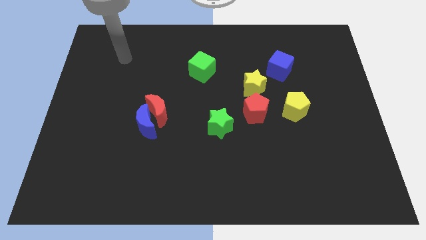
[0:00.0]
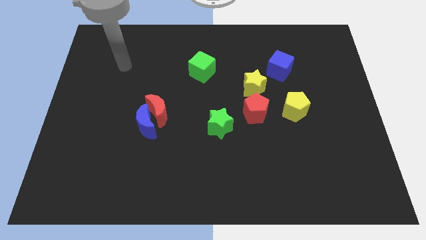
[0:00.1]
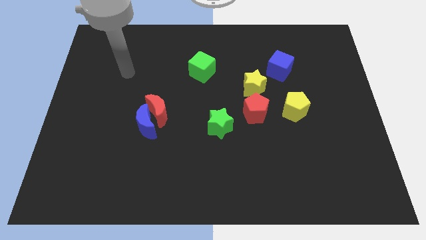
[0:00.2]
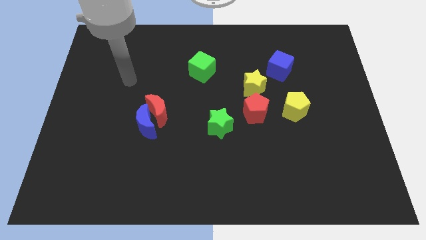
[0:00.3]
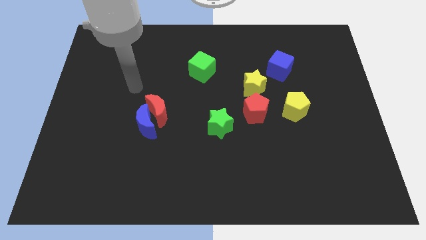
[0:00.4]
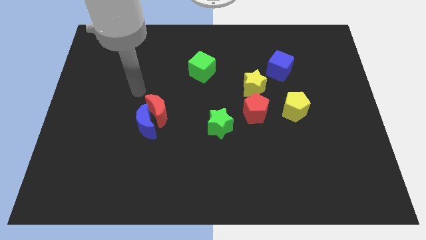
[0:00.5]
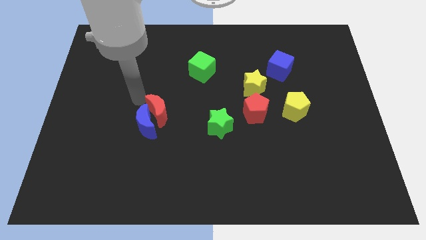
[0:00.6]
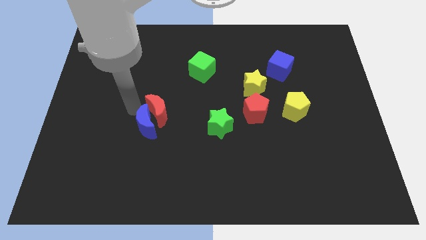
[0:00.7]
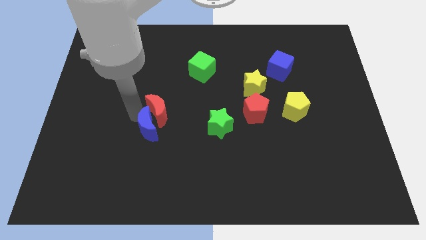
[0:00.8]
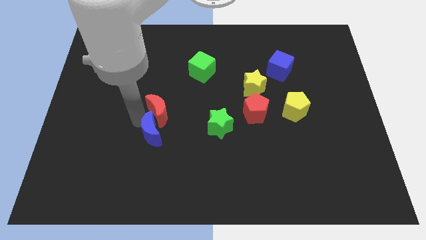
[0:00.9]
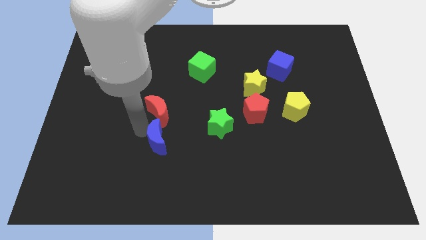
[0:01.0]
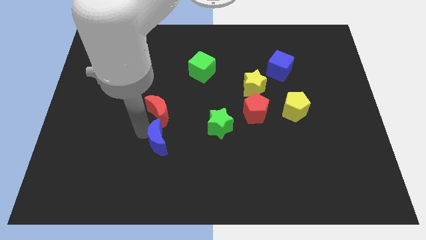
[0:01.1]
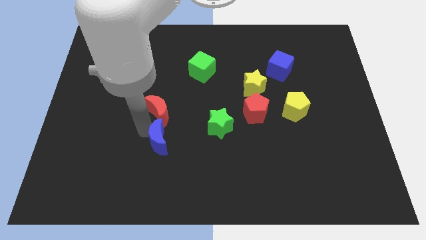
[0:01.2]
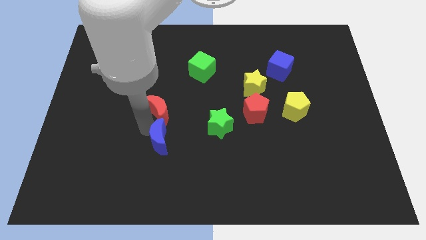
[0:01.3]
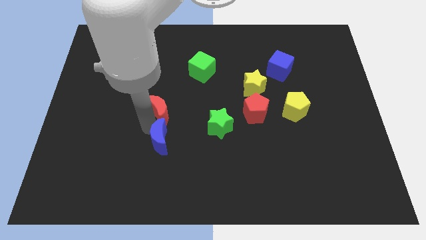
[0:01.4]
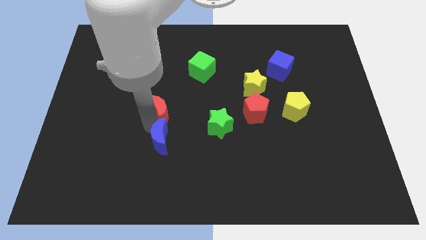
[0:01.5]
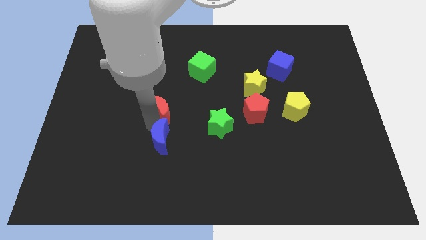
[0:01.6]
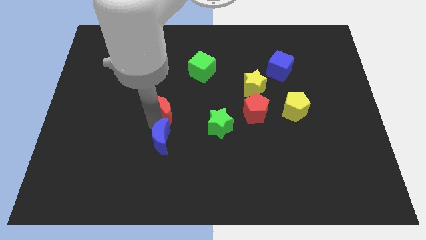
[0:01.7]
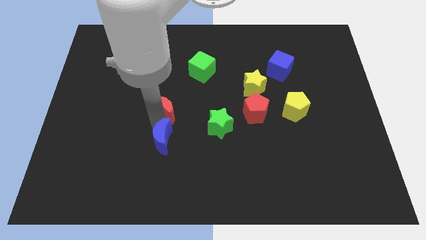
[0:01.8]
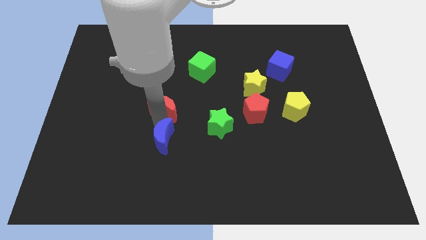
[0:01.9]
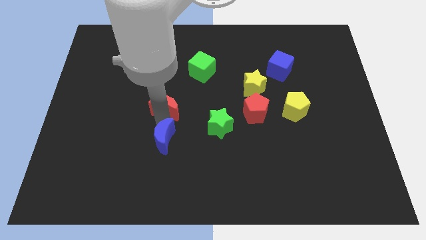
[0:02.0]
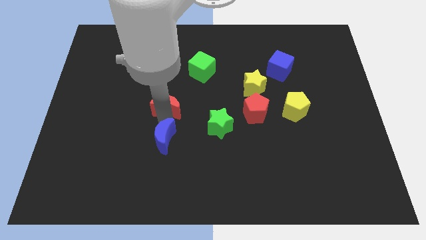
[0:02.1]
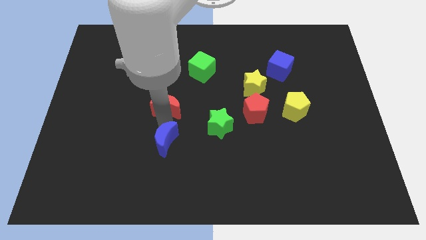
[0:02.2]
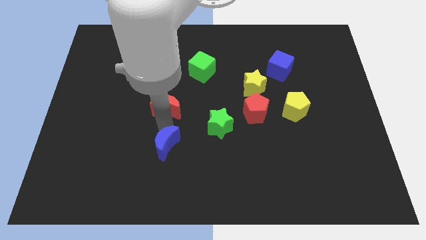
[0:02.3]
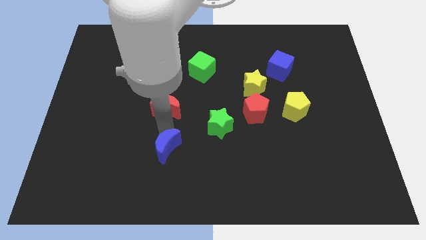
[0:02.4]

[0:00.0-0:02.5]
move the red moon away from the blue moon

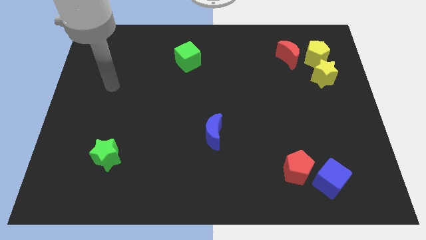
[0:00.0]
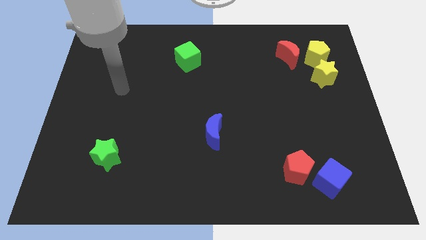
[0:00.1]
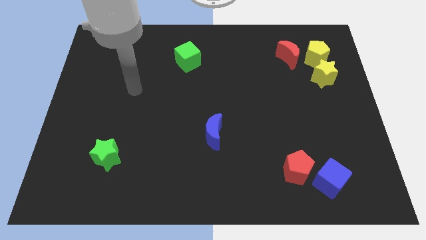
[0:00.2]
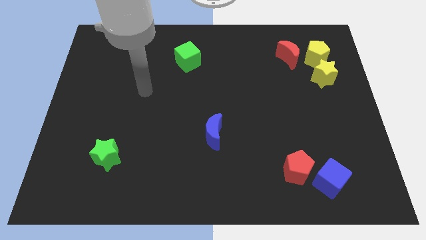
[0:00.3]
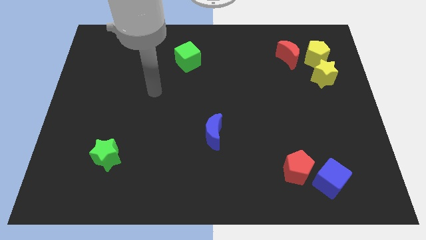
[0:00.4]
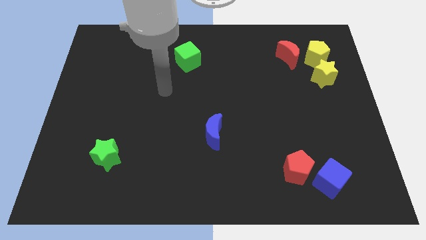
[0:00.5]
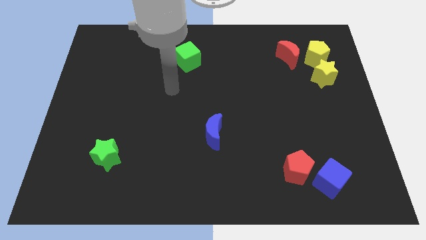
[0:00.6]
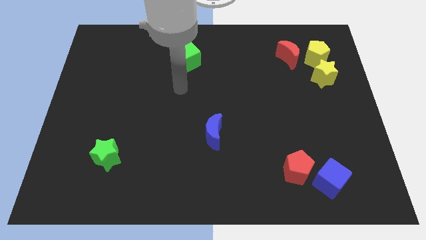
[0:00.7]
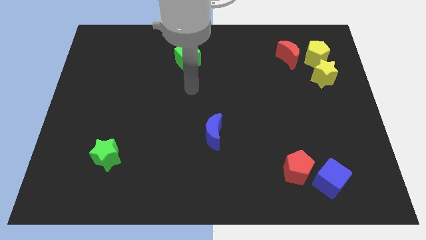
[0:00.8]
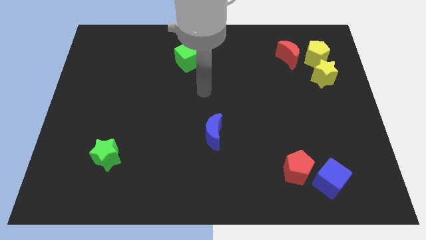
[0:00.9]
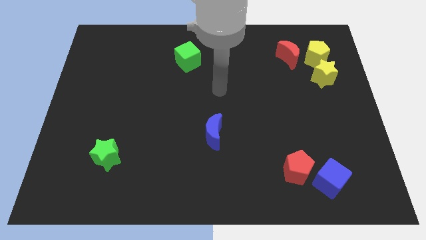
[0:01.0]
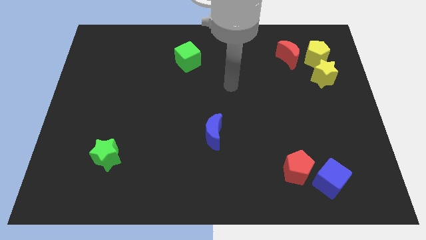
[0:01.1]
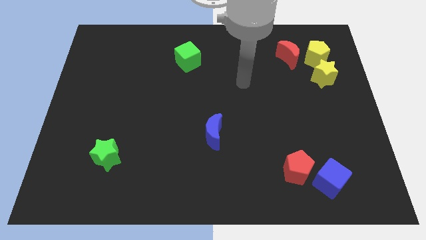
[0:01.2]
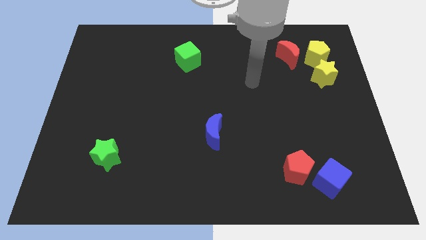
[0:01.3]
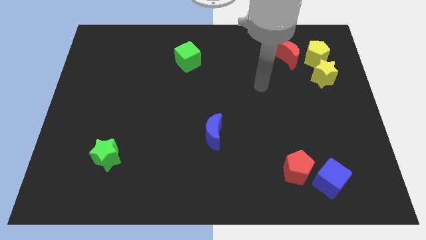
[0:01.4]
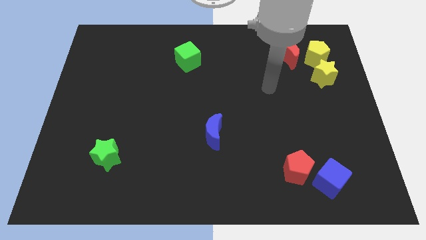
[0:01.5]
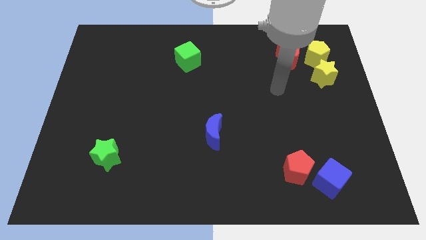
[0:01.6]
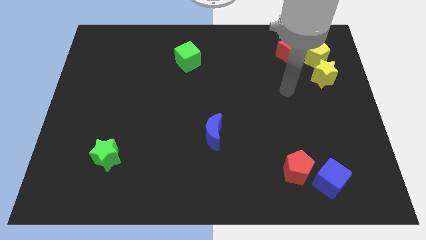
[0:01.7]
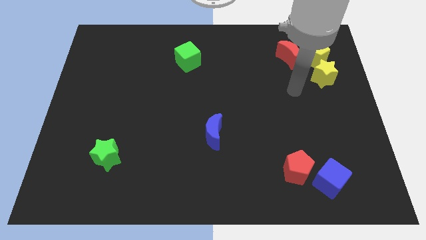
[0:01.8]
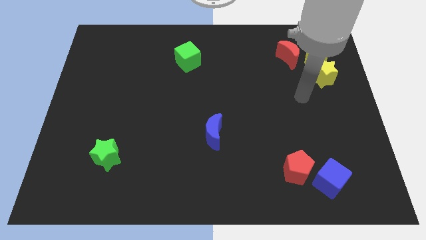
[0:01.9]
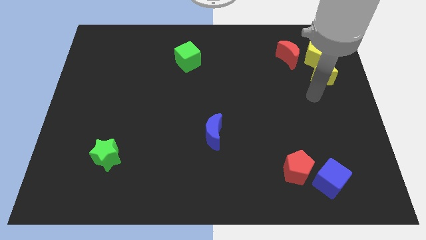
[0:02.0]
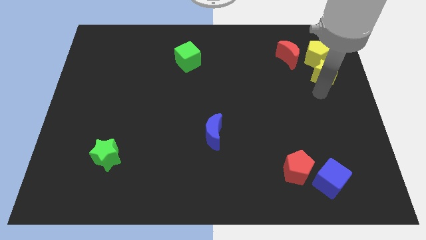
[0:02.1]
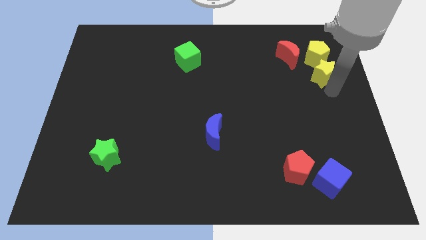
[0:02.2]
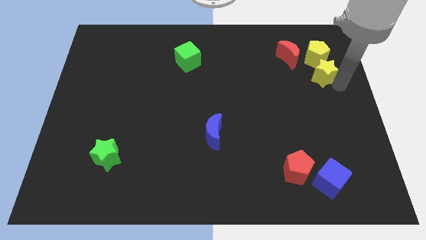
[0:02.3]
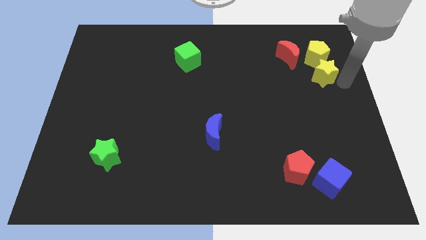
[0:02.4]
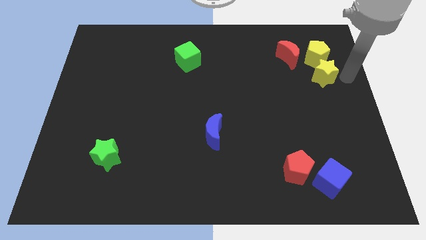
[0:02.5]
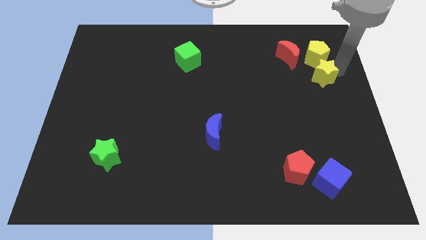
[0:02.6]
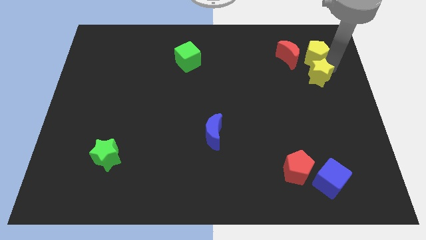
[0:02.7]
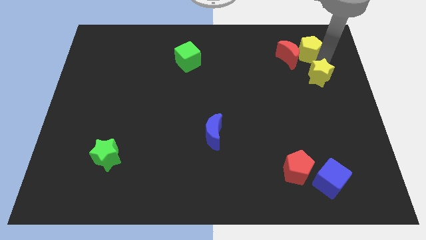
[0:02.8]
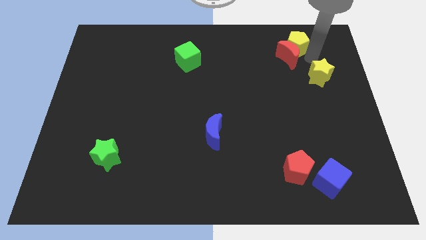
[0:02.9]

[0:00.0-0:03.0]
move the yellow star away from the yellow pentagon

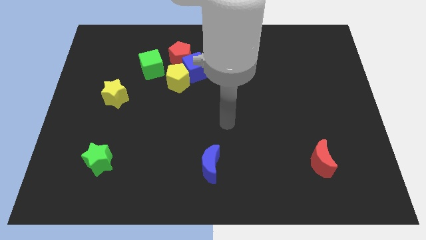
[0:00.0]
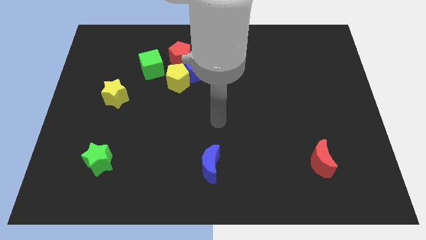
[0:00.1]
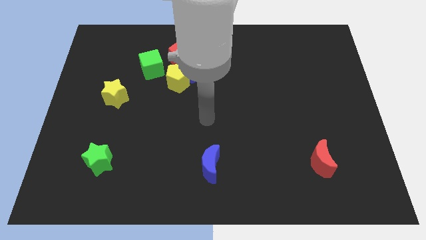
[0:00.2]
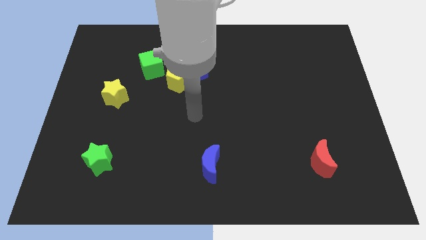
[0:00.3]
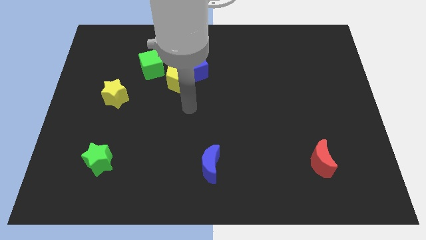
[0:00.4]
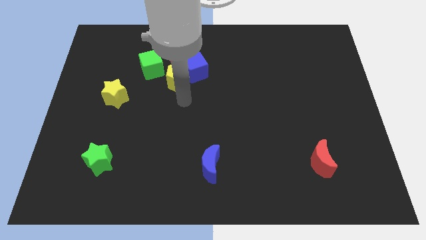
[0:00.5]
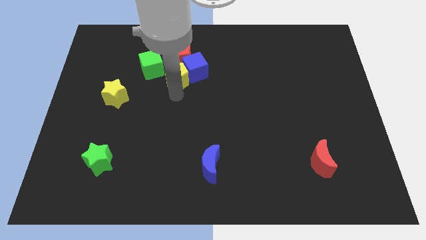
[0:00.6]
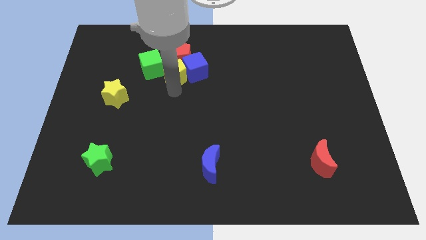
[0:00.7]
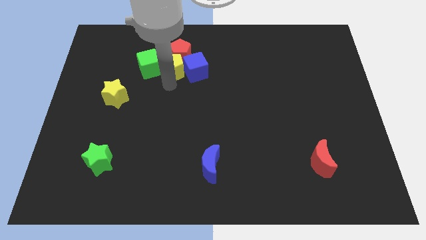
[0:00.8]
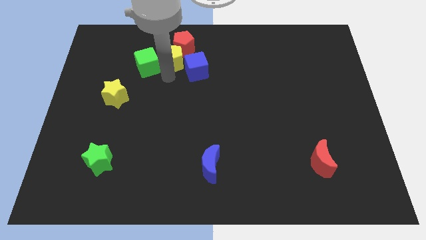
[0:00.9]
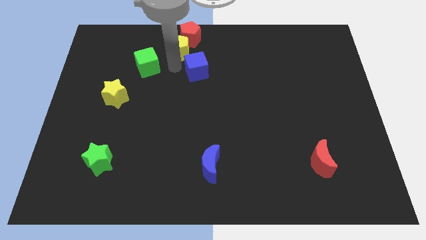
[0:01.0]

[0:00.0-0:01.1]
move the blue cube away from the yellow pentagon and red pentagon

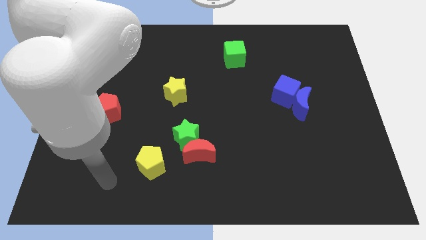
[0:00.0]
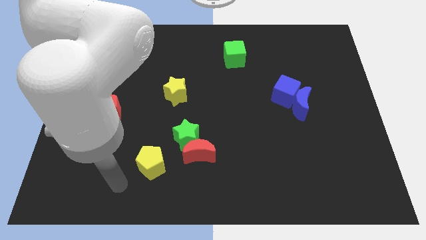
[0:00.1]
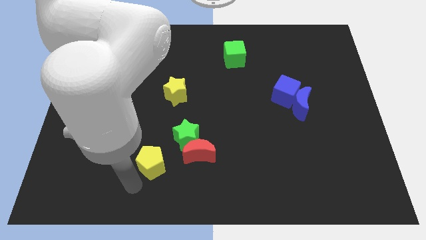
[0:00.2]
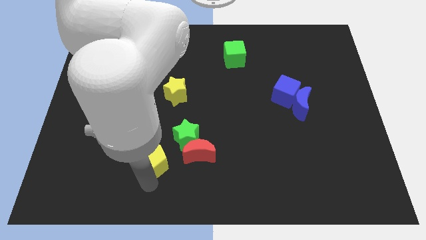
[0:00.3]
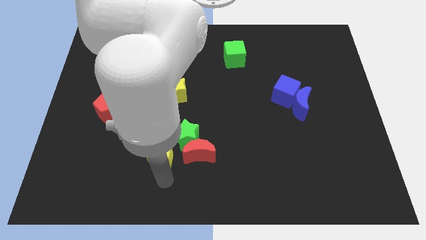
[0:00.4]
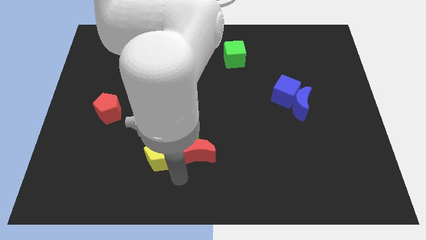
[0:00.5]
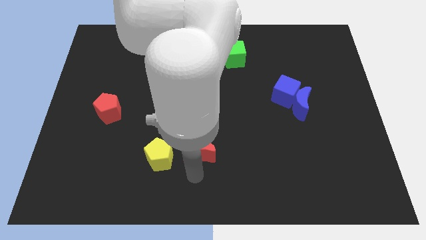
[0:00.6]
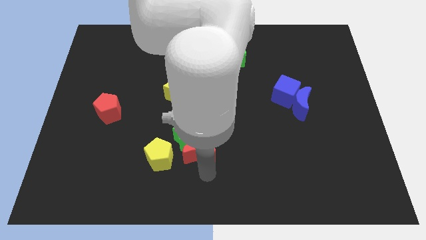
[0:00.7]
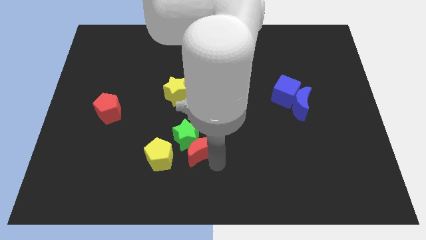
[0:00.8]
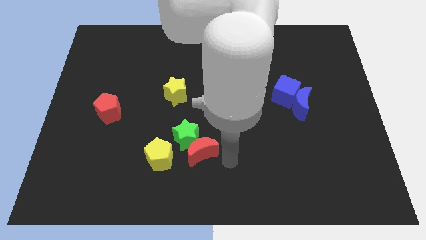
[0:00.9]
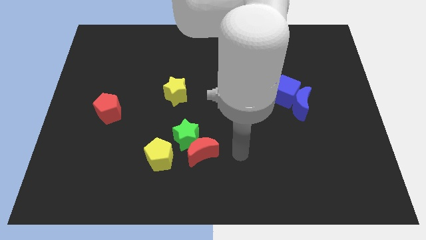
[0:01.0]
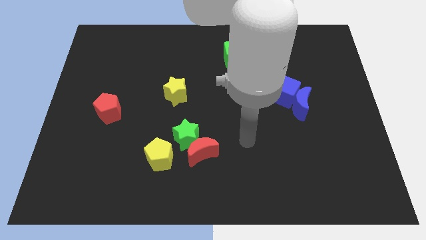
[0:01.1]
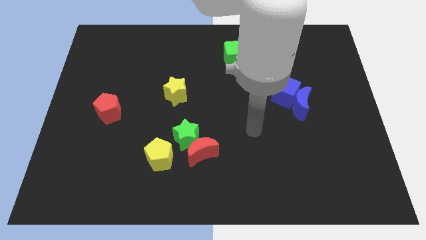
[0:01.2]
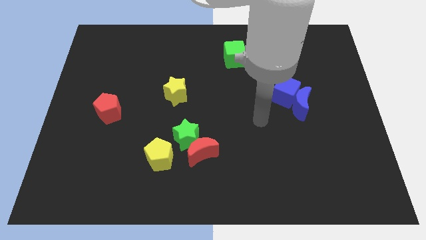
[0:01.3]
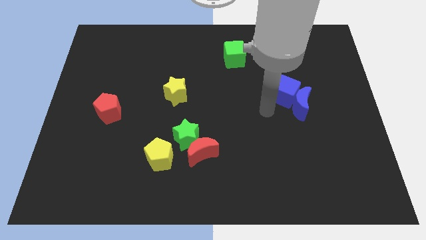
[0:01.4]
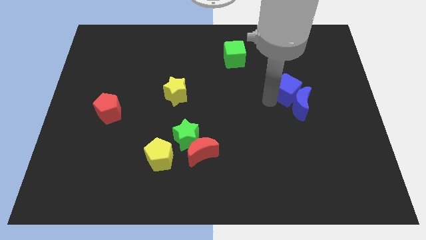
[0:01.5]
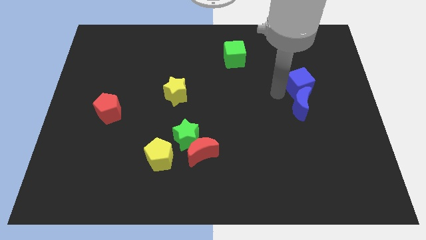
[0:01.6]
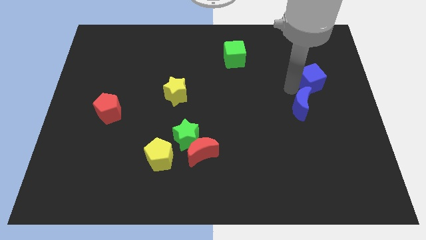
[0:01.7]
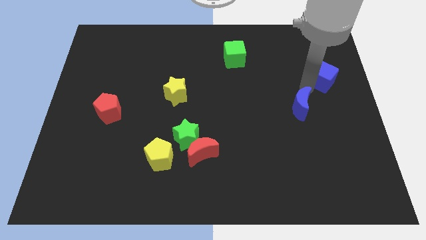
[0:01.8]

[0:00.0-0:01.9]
separate the blue moon from the blue cube

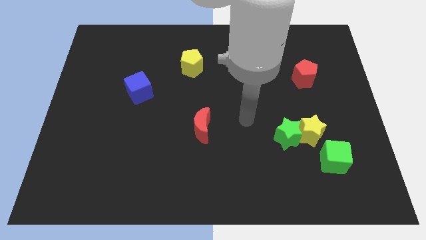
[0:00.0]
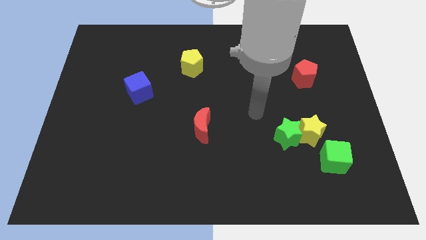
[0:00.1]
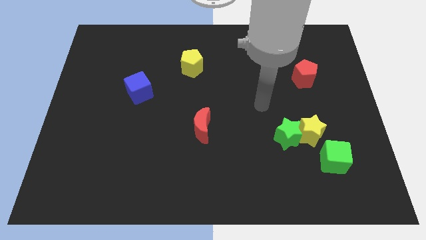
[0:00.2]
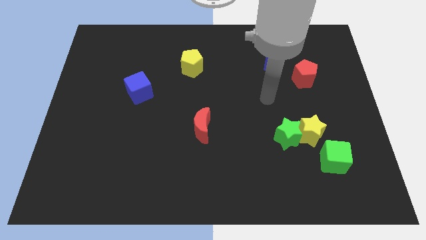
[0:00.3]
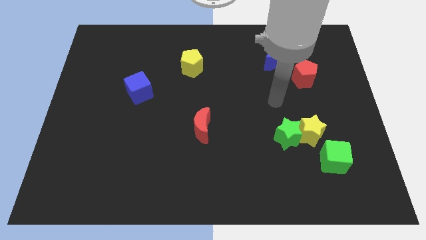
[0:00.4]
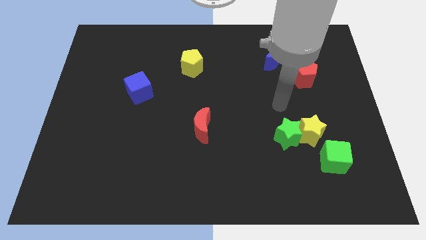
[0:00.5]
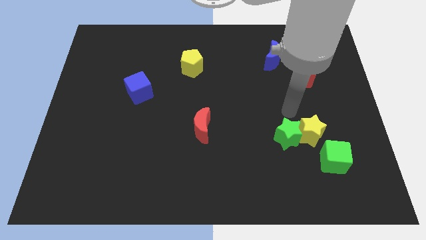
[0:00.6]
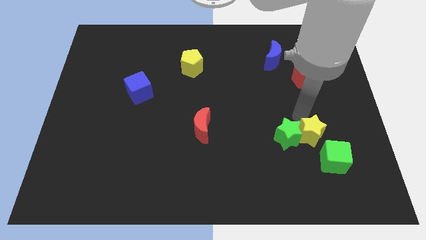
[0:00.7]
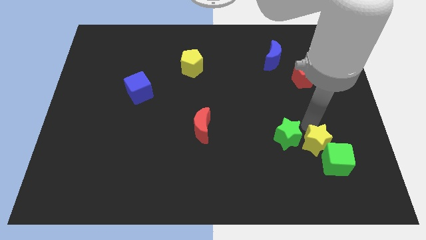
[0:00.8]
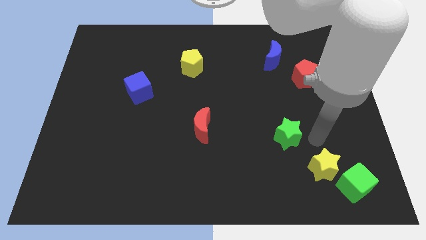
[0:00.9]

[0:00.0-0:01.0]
pull the green star apart from the yellow star
